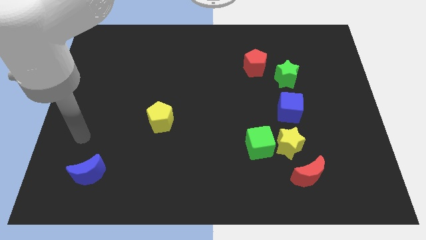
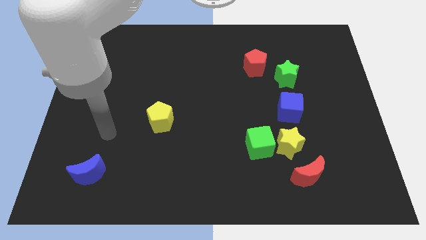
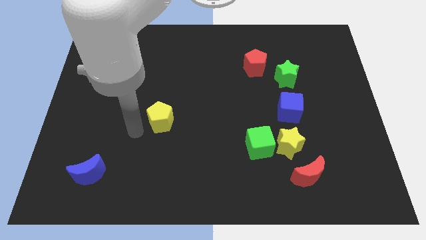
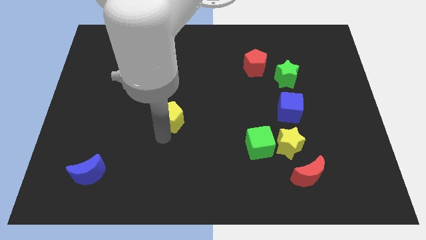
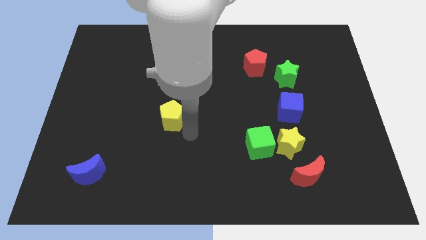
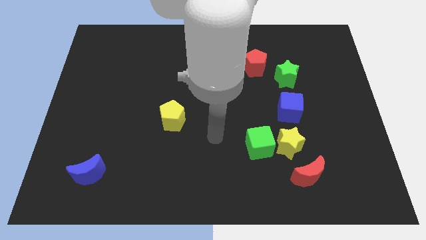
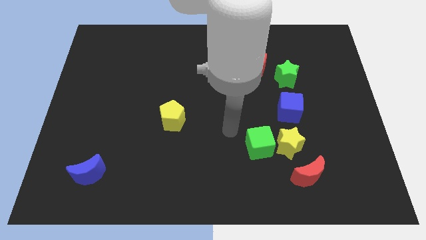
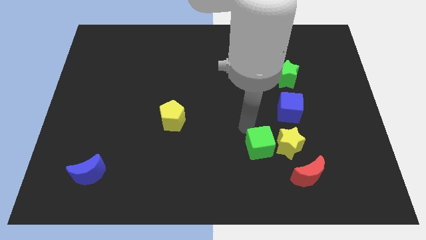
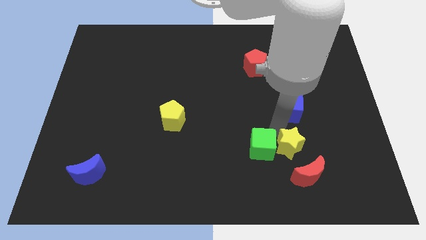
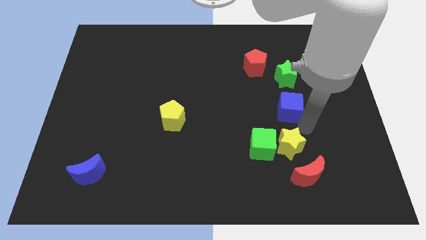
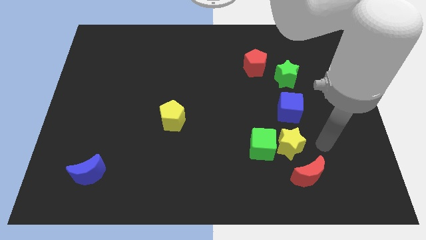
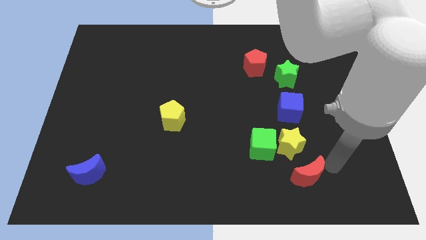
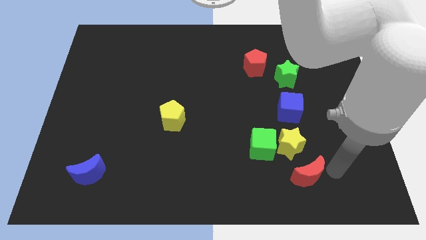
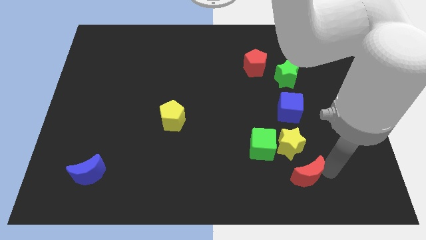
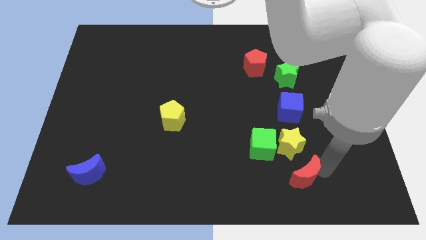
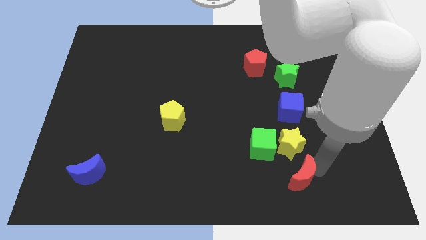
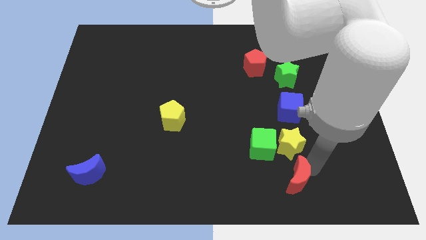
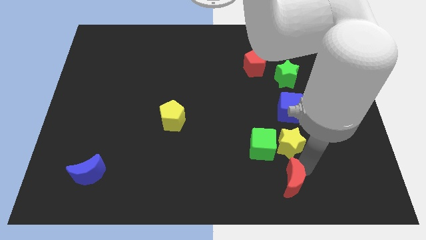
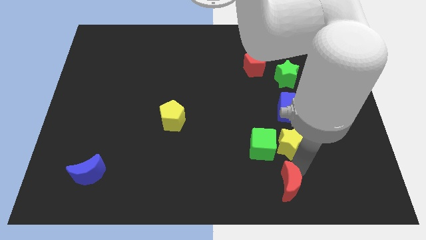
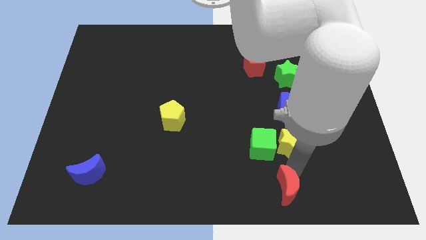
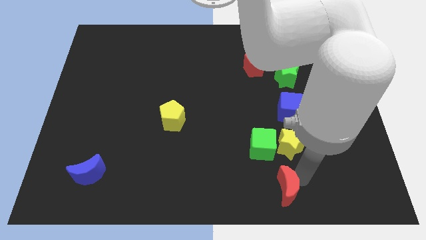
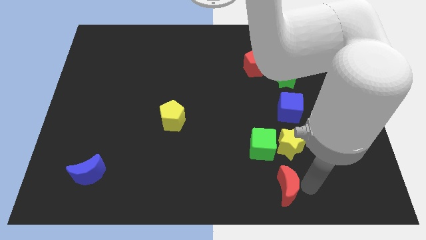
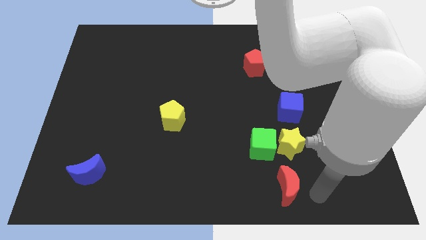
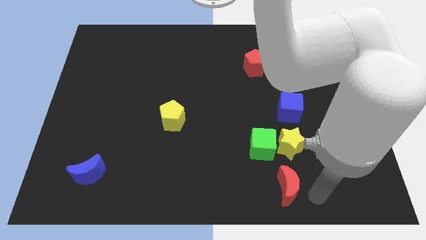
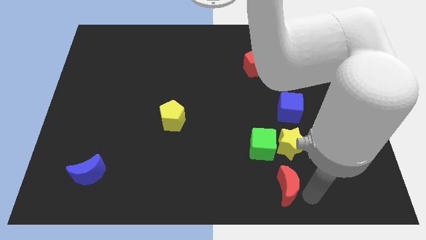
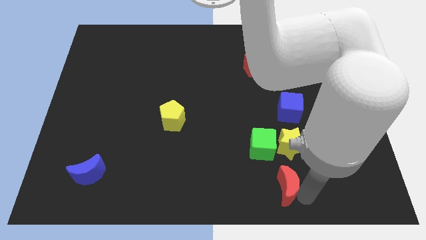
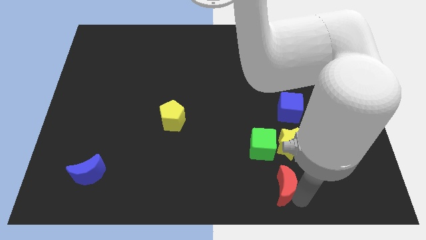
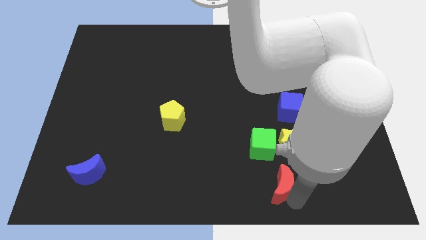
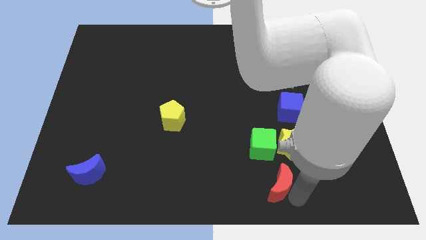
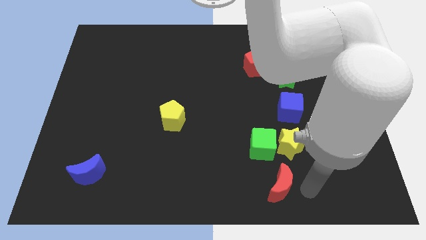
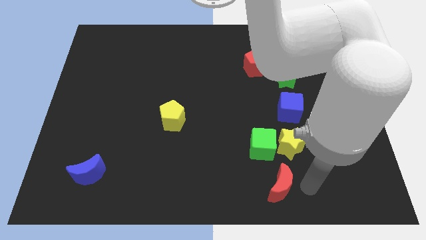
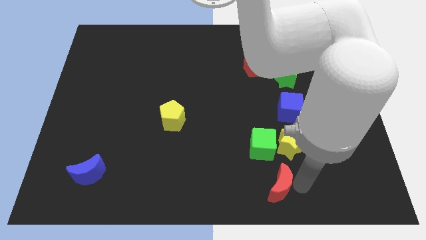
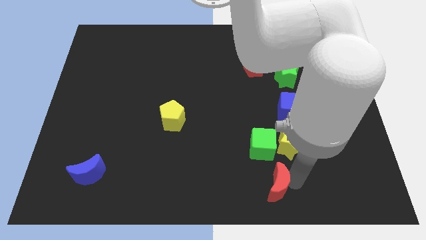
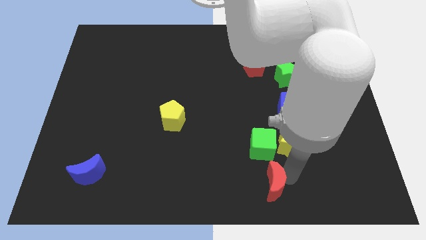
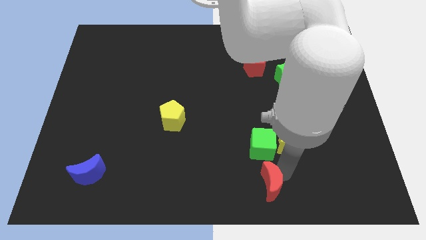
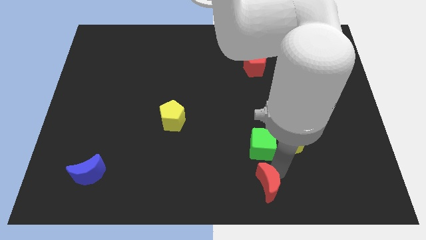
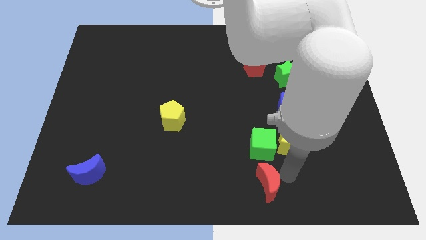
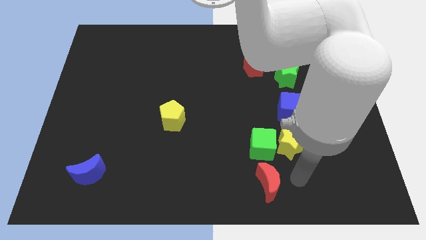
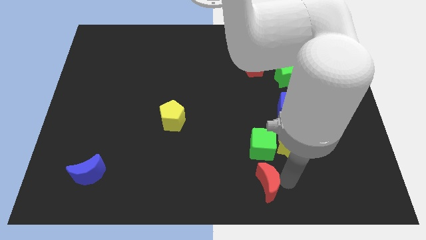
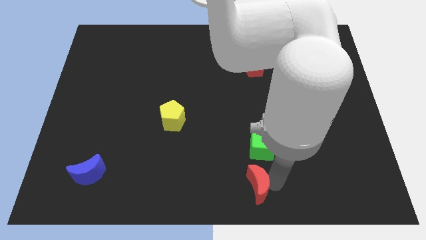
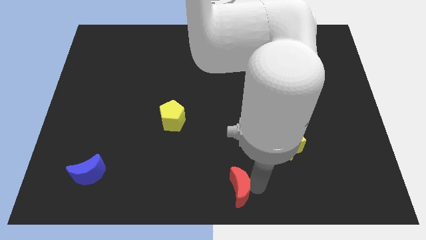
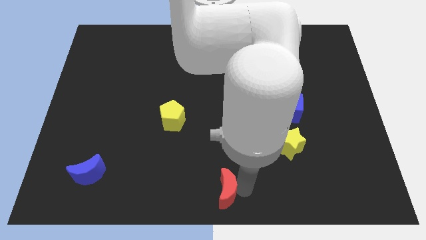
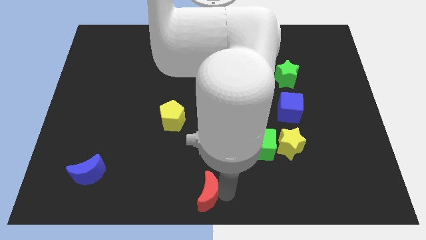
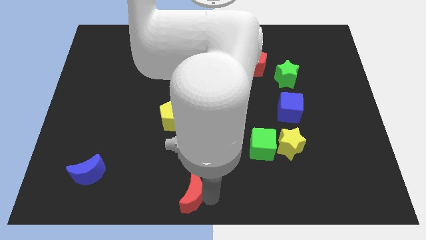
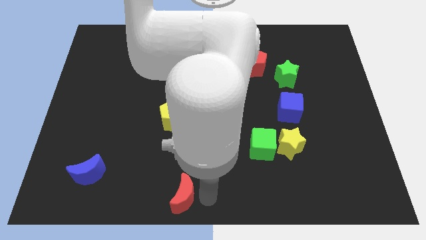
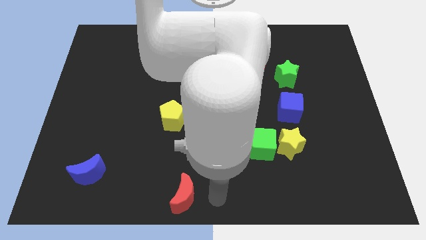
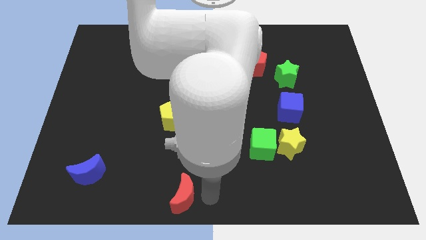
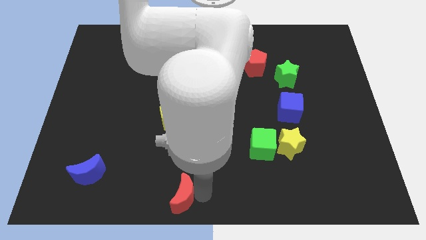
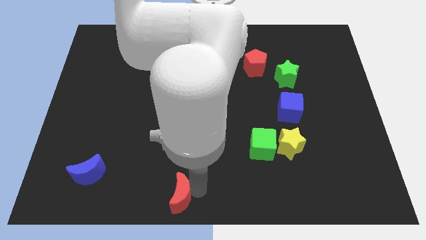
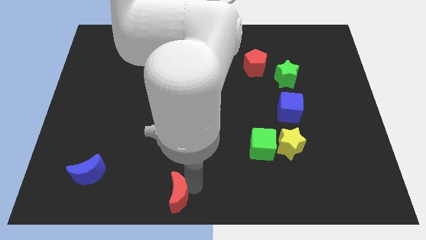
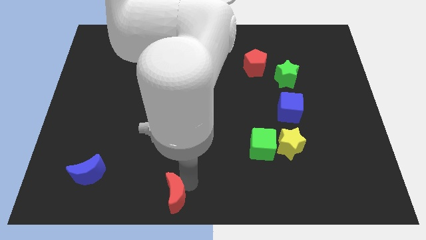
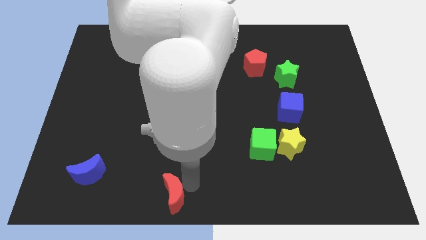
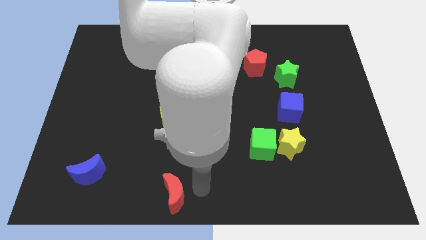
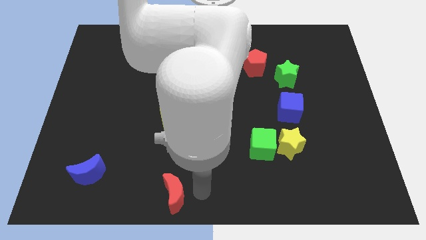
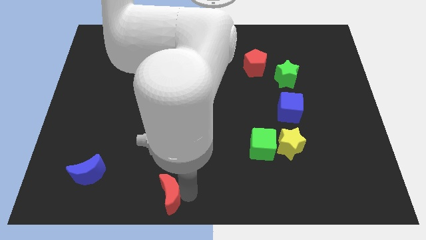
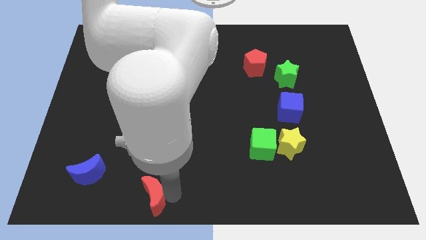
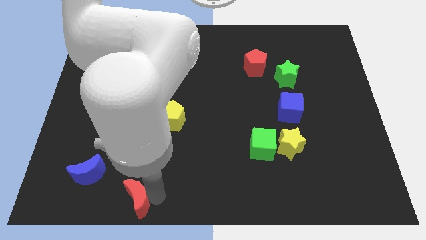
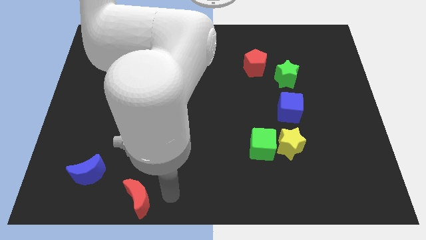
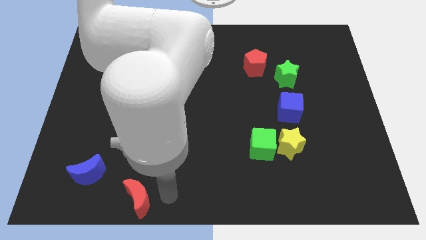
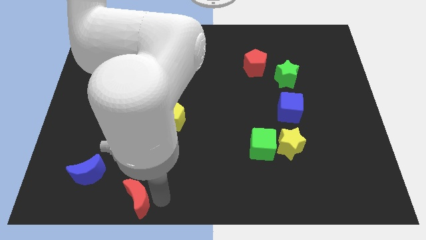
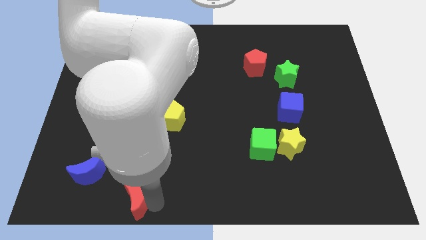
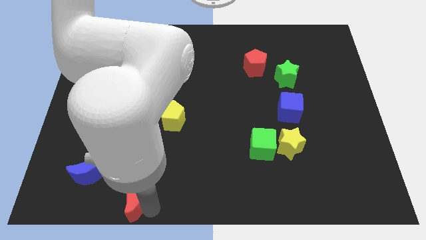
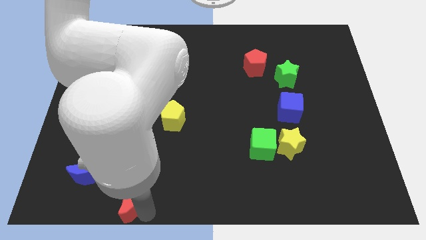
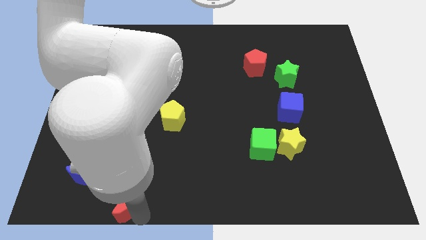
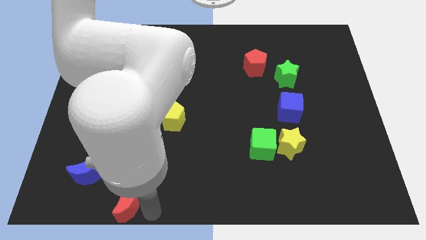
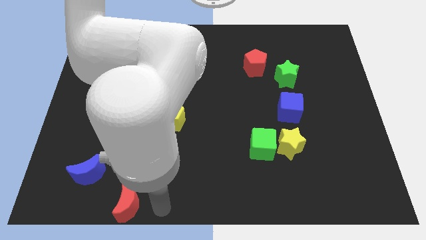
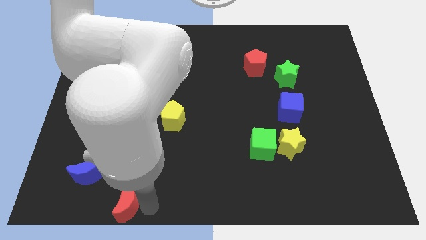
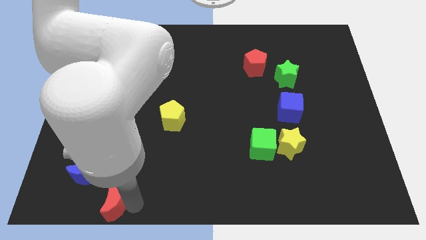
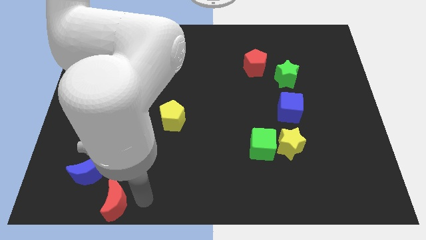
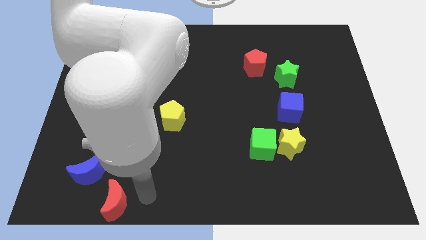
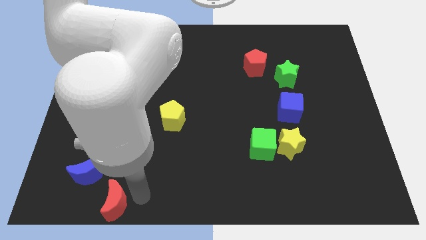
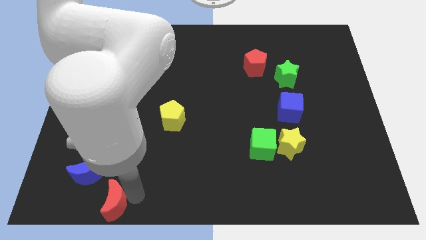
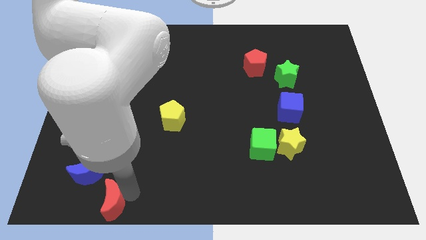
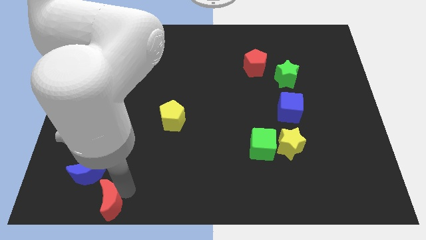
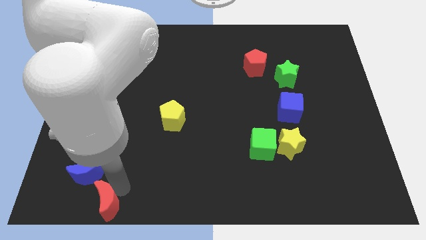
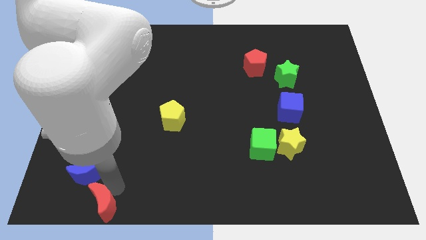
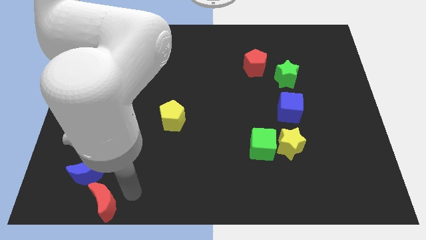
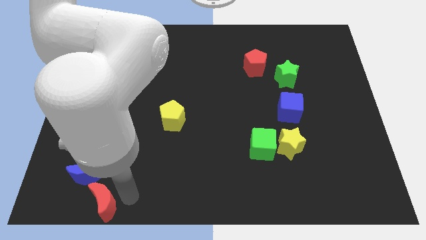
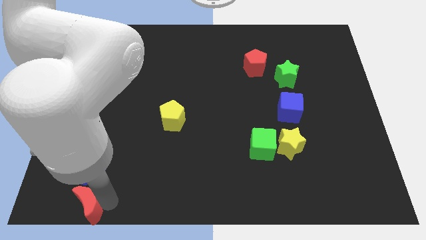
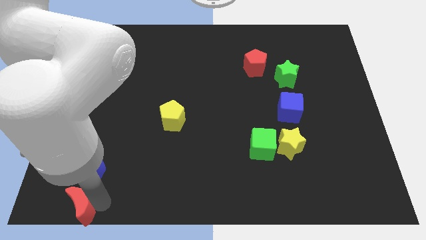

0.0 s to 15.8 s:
push the red moon to the bottom left corner
